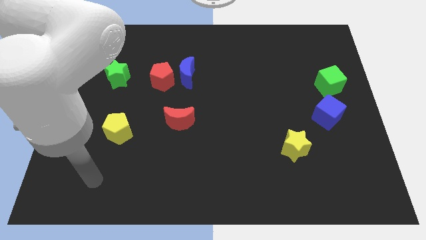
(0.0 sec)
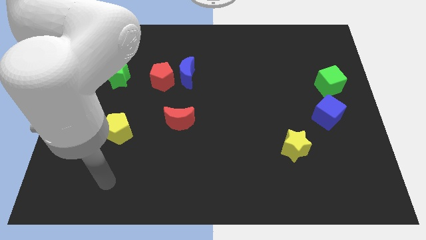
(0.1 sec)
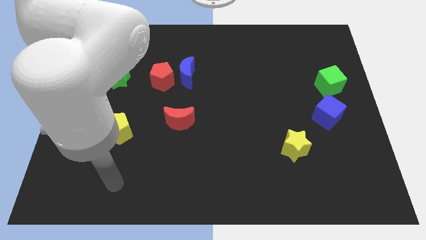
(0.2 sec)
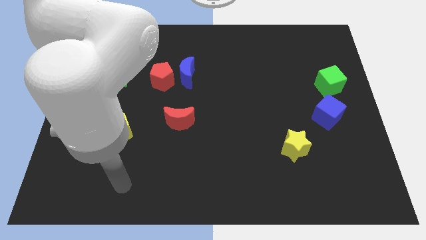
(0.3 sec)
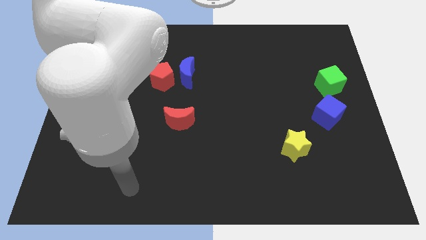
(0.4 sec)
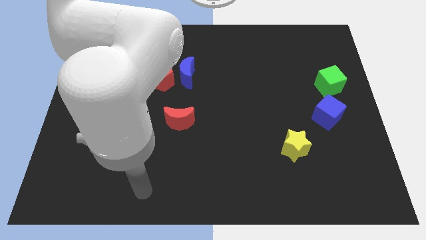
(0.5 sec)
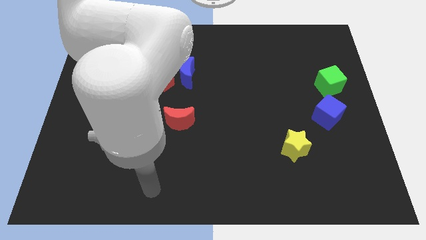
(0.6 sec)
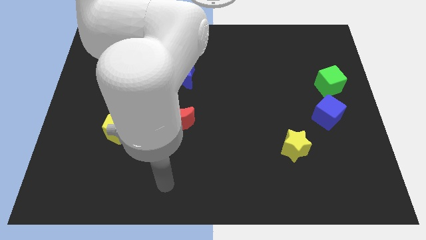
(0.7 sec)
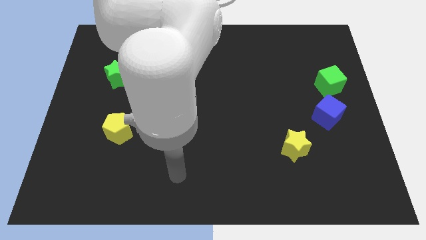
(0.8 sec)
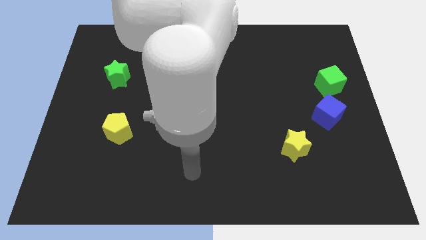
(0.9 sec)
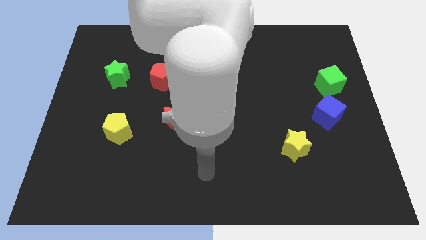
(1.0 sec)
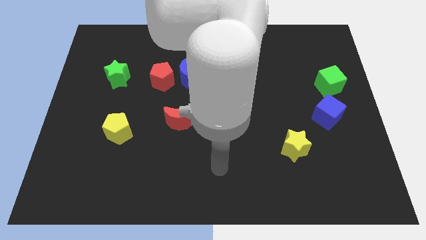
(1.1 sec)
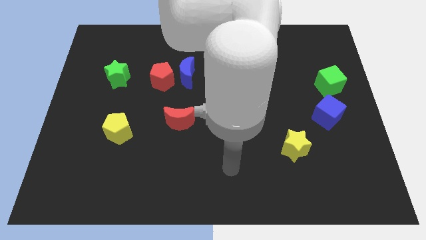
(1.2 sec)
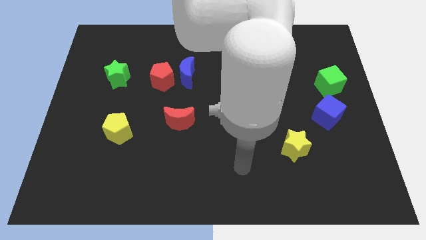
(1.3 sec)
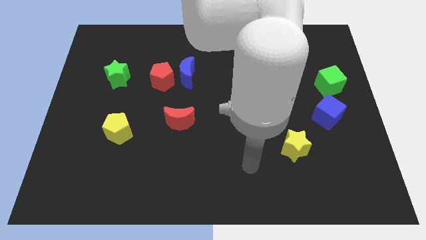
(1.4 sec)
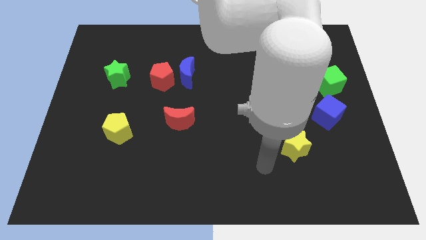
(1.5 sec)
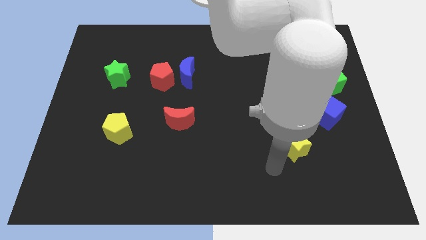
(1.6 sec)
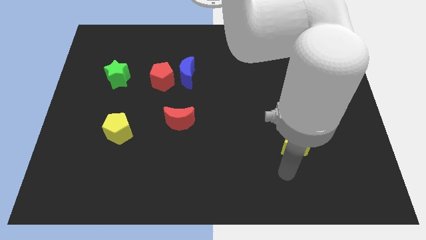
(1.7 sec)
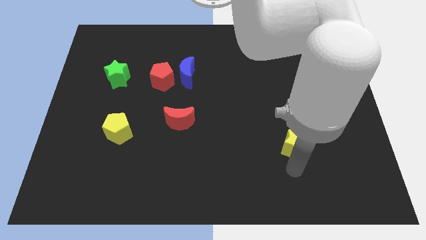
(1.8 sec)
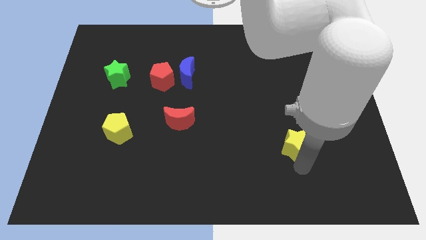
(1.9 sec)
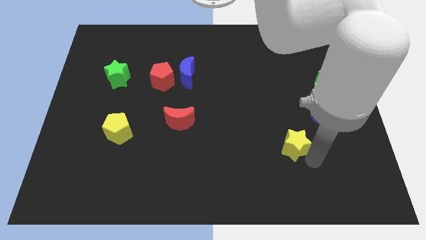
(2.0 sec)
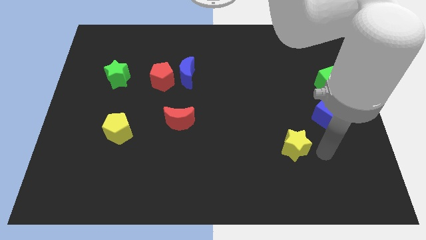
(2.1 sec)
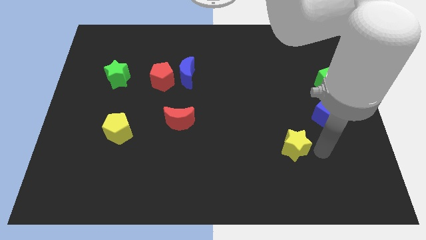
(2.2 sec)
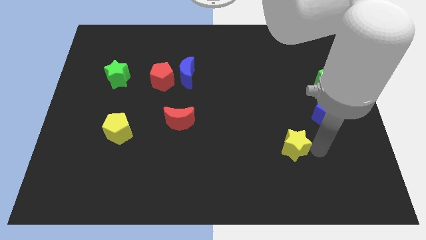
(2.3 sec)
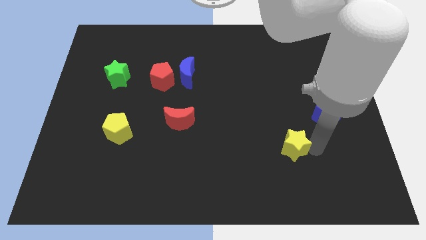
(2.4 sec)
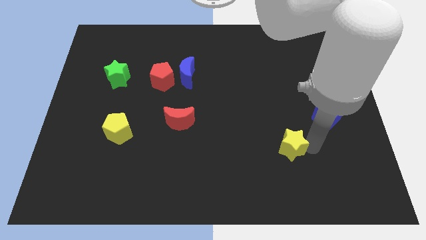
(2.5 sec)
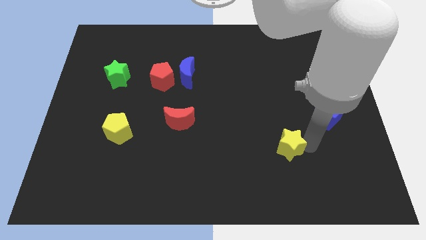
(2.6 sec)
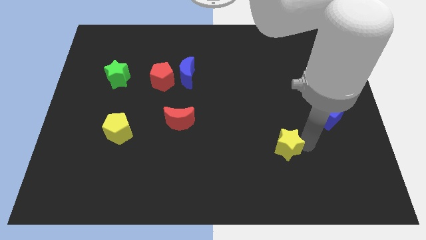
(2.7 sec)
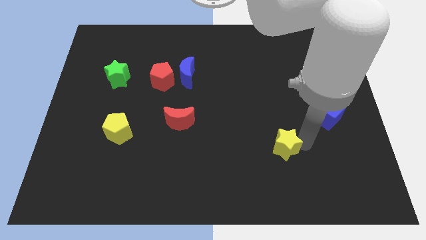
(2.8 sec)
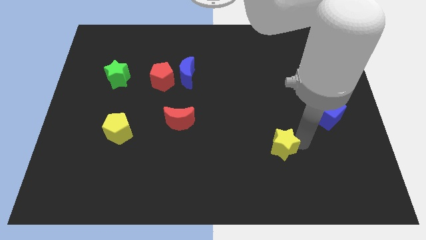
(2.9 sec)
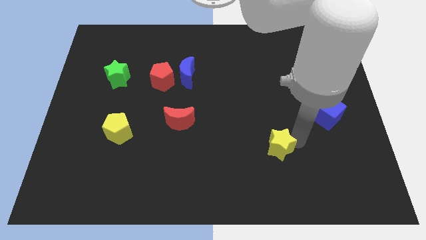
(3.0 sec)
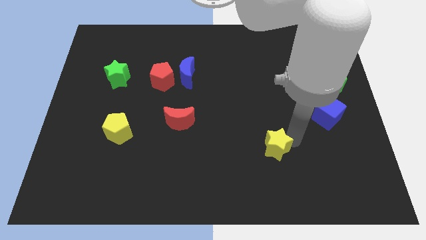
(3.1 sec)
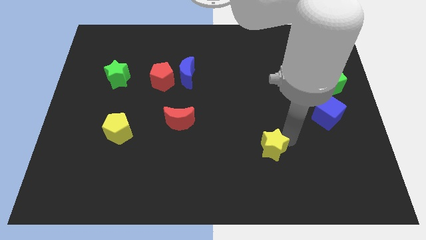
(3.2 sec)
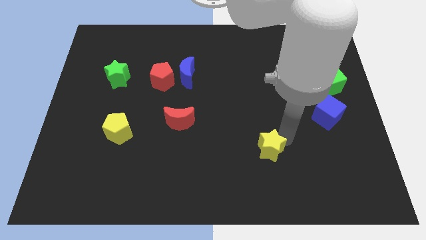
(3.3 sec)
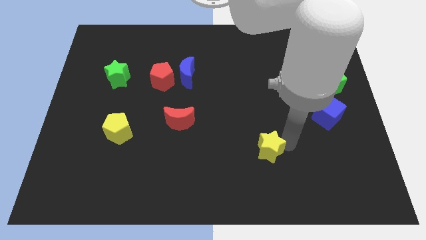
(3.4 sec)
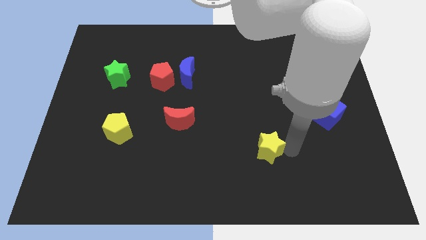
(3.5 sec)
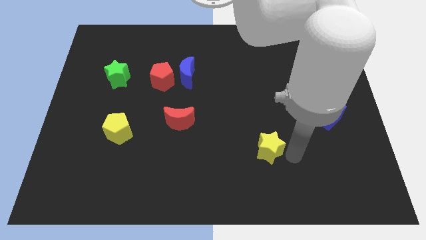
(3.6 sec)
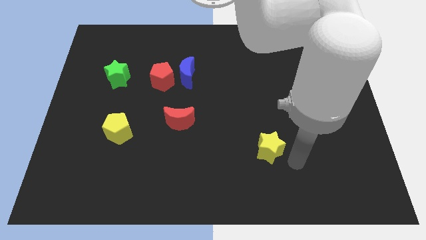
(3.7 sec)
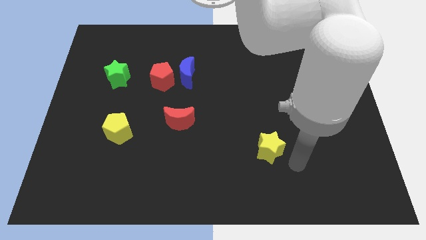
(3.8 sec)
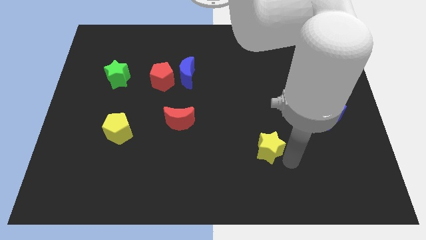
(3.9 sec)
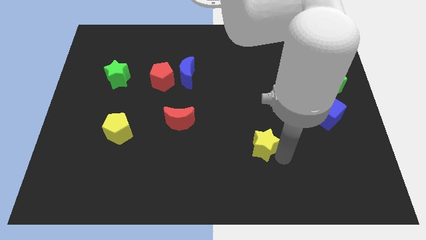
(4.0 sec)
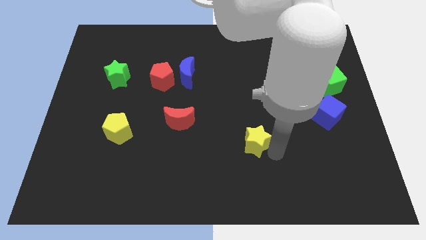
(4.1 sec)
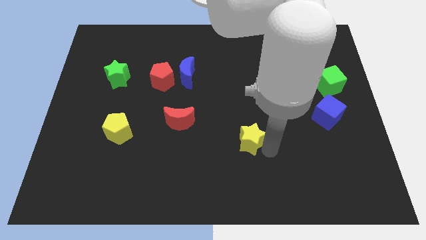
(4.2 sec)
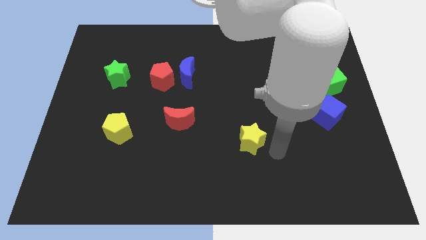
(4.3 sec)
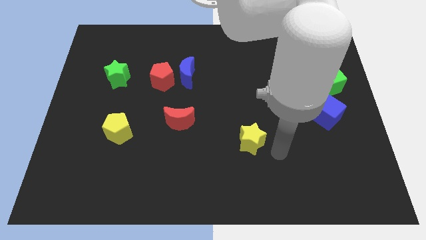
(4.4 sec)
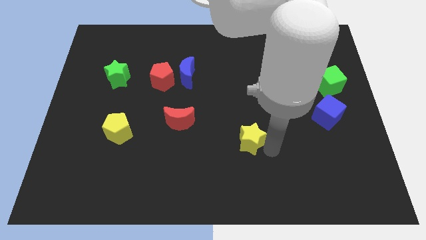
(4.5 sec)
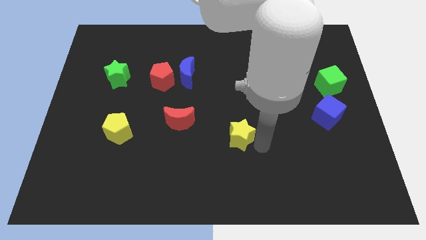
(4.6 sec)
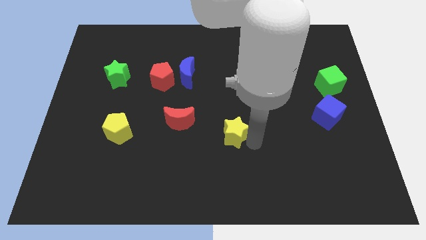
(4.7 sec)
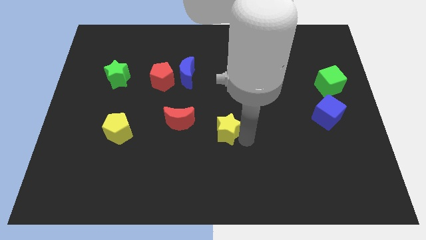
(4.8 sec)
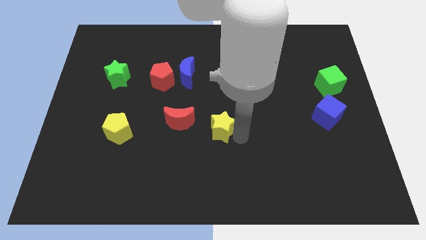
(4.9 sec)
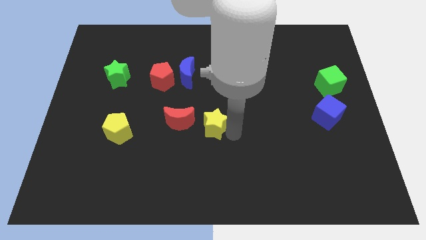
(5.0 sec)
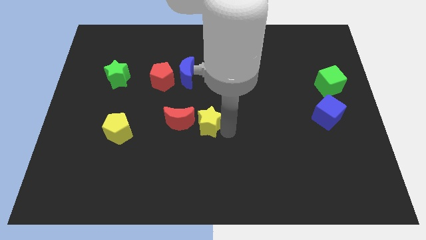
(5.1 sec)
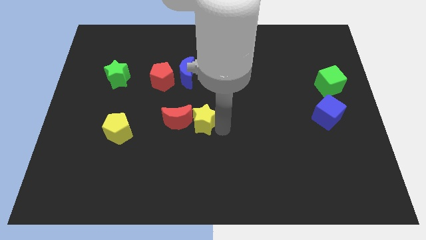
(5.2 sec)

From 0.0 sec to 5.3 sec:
slide the yellow star towards the red moon

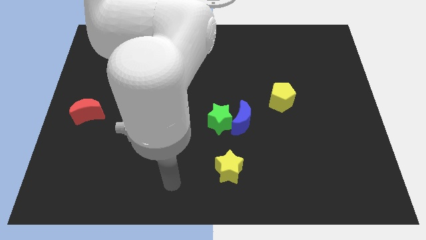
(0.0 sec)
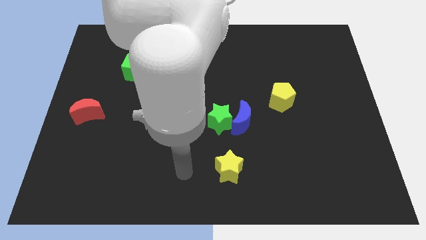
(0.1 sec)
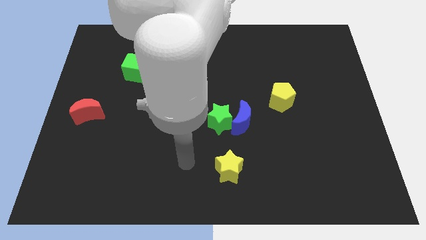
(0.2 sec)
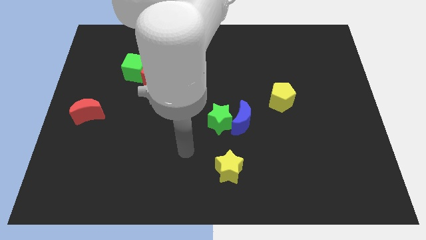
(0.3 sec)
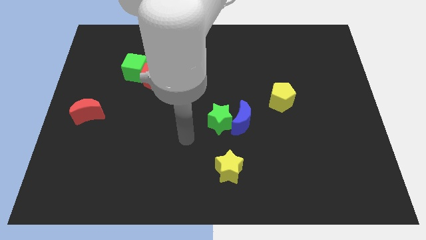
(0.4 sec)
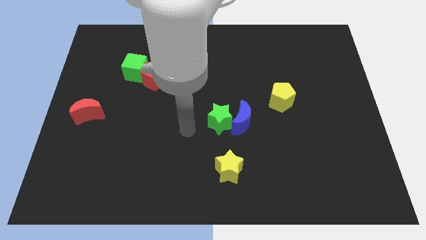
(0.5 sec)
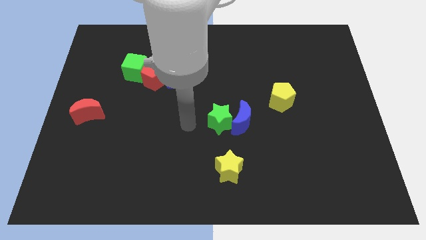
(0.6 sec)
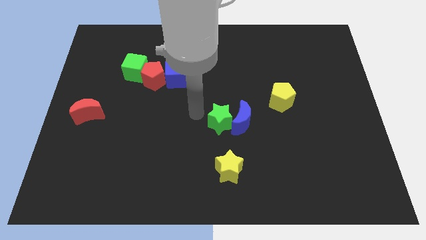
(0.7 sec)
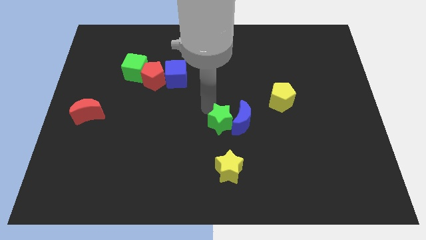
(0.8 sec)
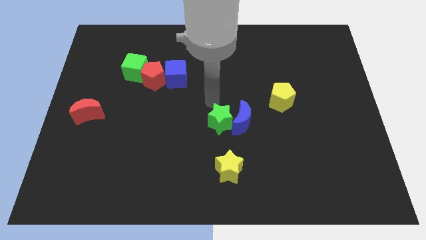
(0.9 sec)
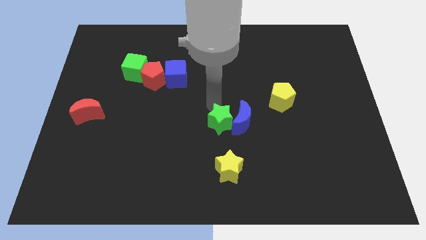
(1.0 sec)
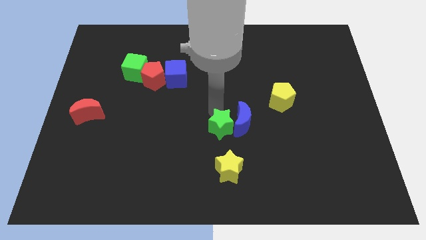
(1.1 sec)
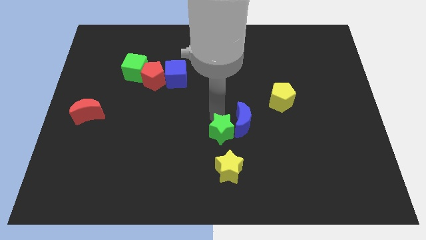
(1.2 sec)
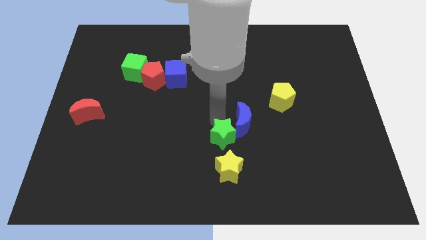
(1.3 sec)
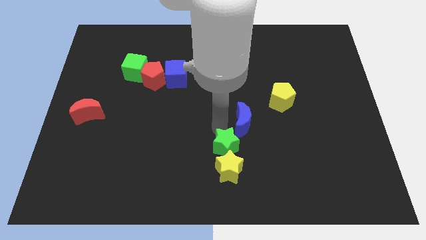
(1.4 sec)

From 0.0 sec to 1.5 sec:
push the green star towards the yellow star
